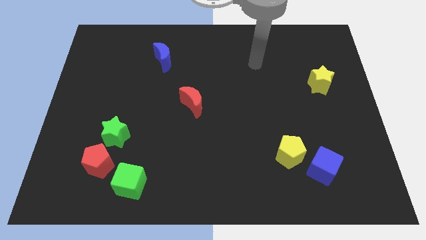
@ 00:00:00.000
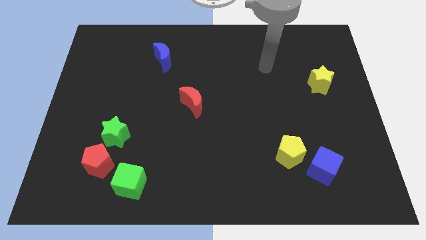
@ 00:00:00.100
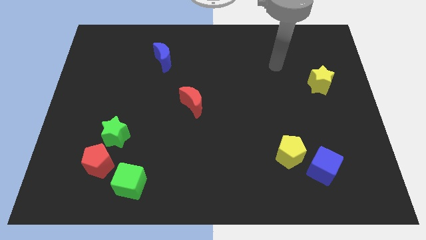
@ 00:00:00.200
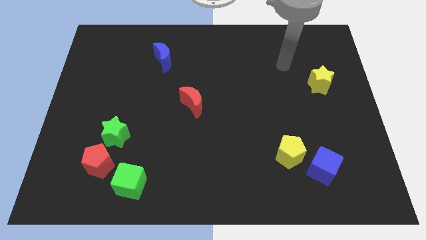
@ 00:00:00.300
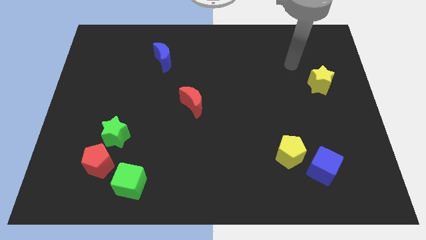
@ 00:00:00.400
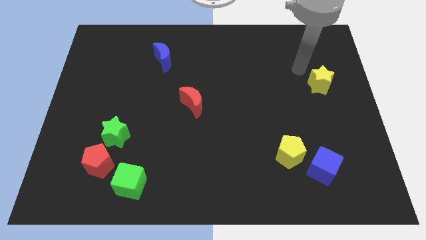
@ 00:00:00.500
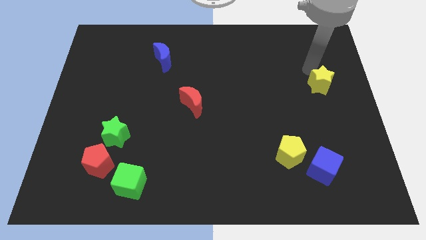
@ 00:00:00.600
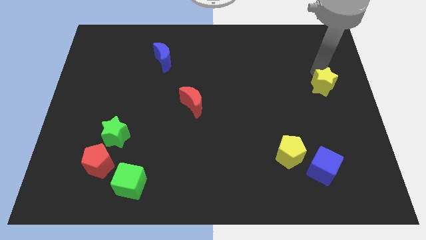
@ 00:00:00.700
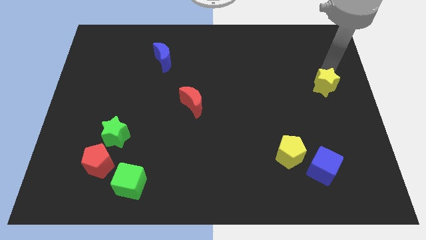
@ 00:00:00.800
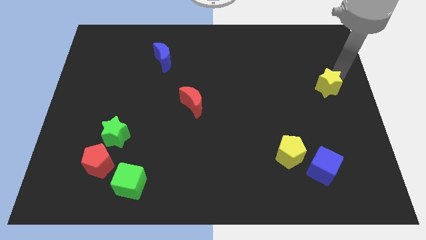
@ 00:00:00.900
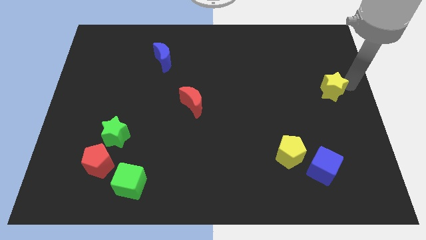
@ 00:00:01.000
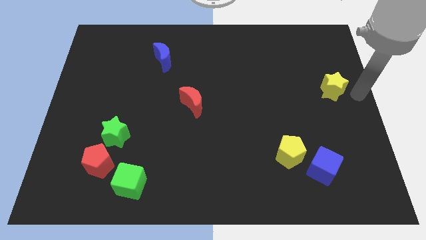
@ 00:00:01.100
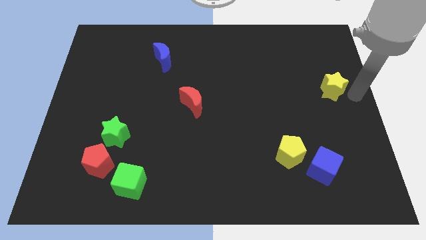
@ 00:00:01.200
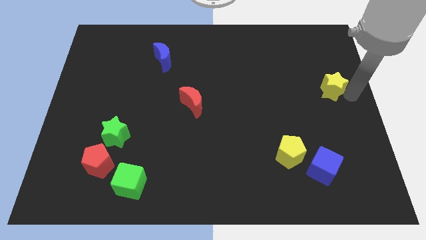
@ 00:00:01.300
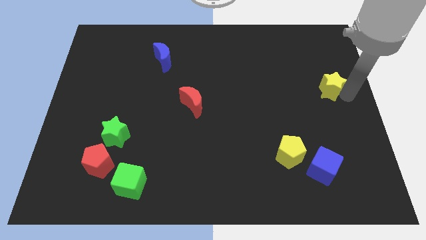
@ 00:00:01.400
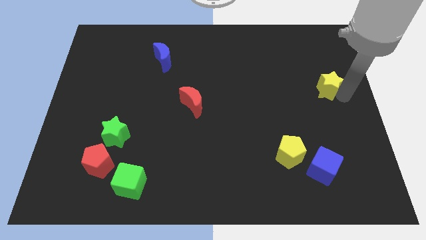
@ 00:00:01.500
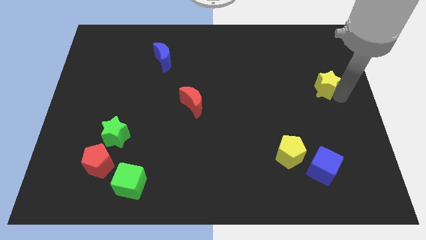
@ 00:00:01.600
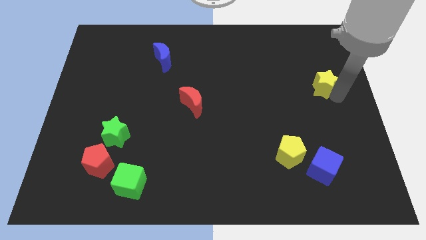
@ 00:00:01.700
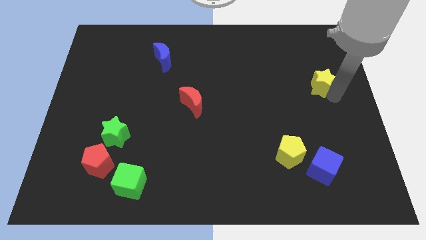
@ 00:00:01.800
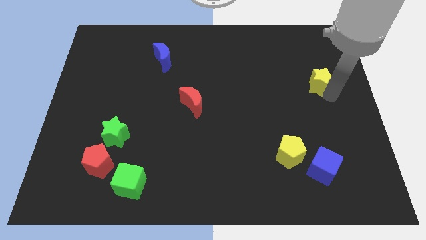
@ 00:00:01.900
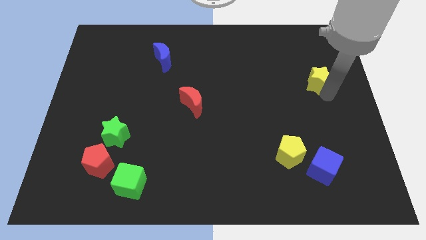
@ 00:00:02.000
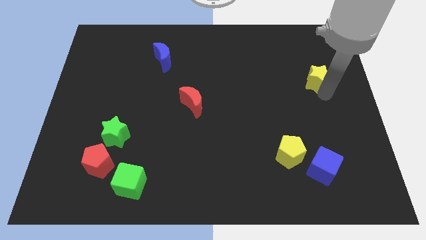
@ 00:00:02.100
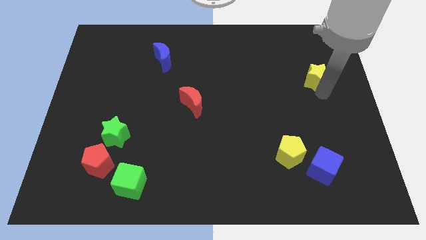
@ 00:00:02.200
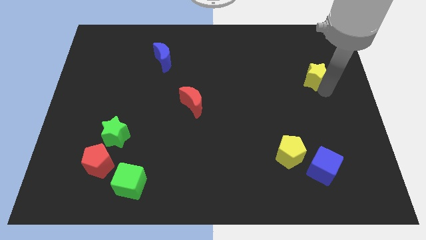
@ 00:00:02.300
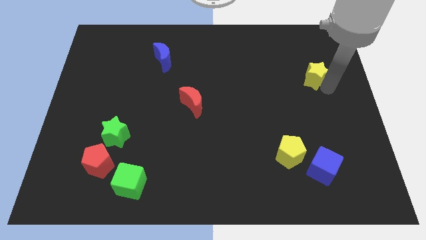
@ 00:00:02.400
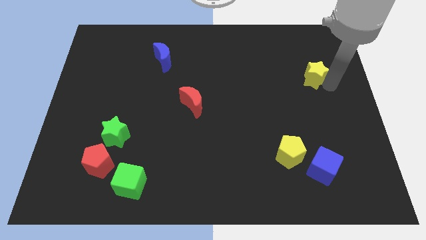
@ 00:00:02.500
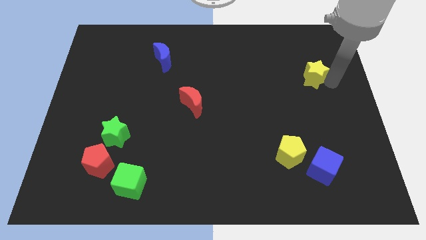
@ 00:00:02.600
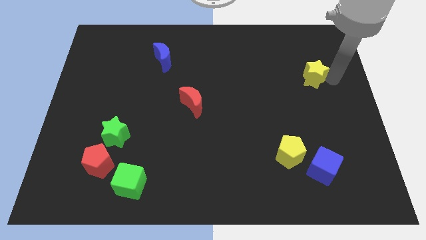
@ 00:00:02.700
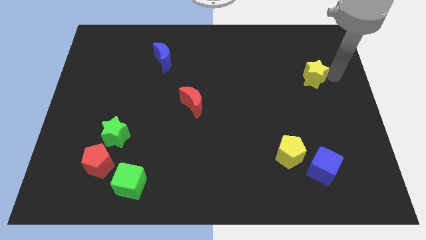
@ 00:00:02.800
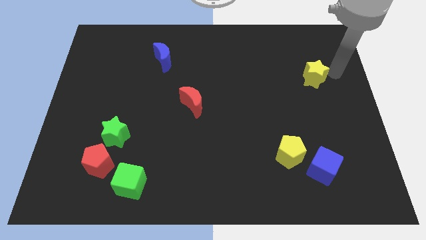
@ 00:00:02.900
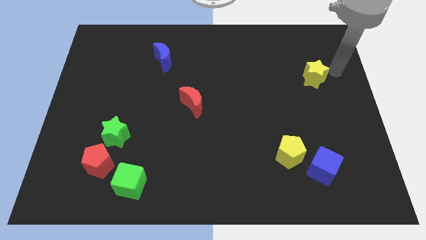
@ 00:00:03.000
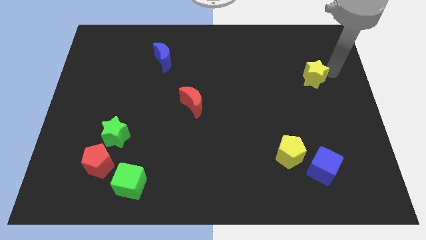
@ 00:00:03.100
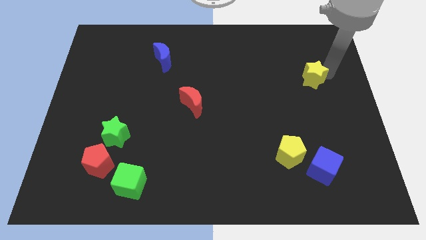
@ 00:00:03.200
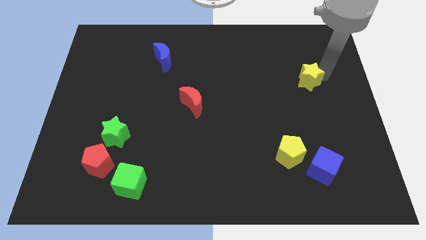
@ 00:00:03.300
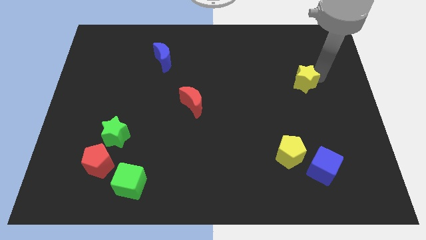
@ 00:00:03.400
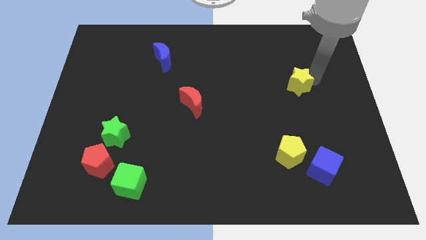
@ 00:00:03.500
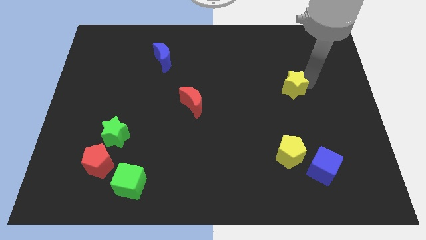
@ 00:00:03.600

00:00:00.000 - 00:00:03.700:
move the yellow star a little to the left

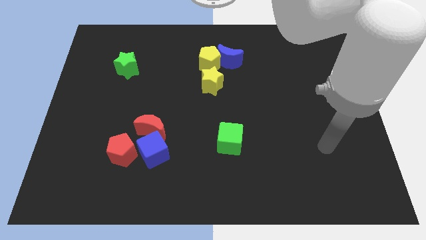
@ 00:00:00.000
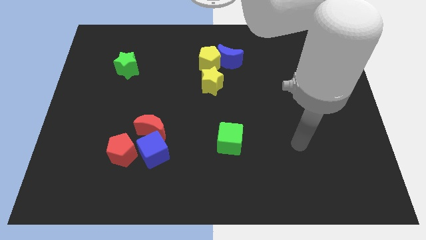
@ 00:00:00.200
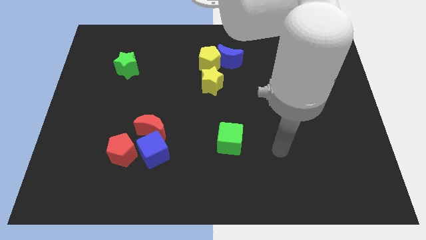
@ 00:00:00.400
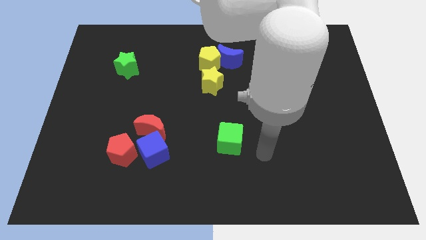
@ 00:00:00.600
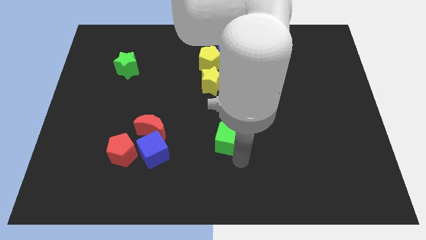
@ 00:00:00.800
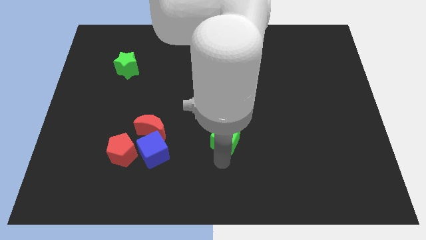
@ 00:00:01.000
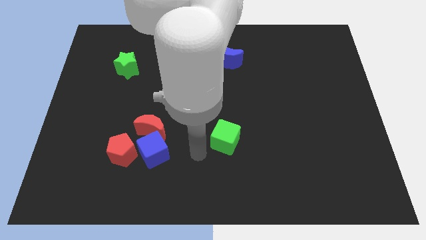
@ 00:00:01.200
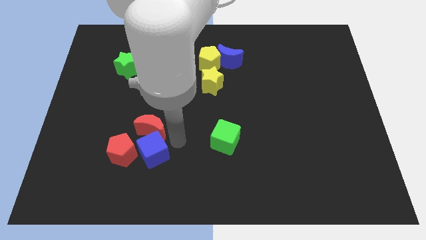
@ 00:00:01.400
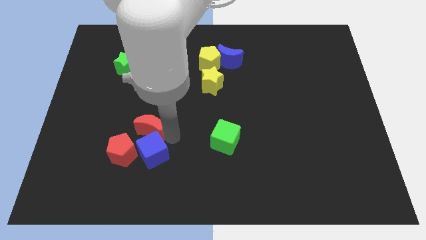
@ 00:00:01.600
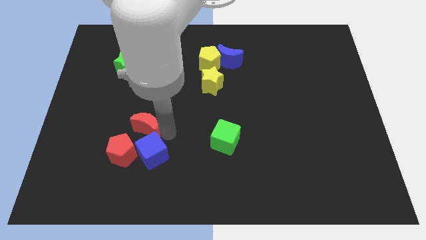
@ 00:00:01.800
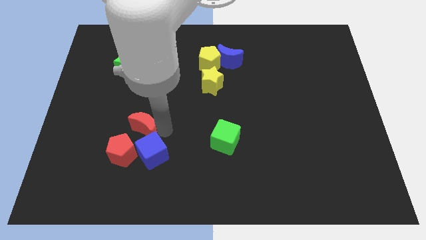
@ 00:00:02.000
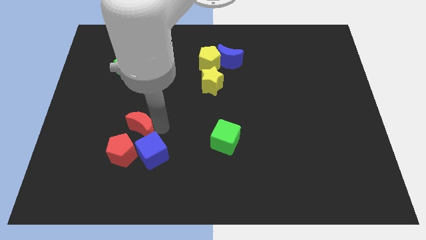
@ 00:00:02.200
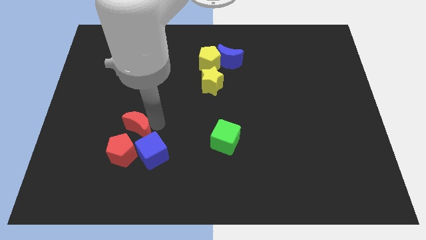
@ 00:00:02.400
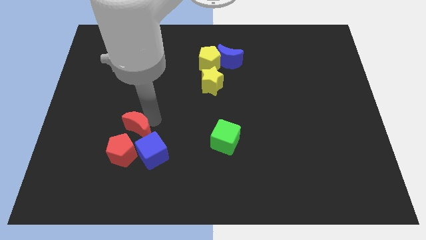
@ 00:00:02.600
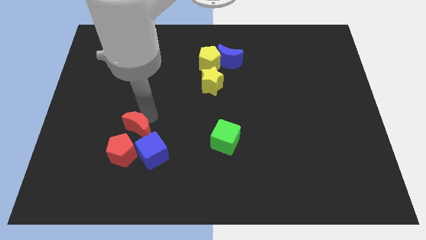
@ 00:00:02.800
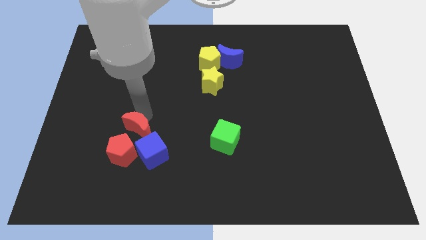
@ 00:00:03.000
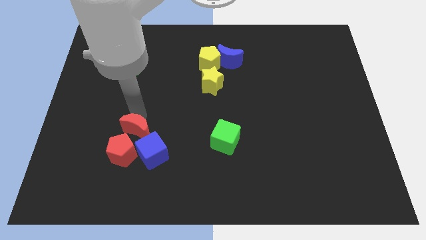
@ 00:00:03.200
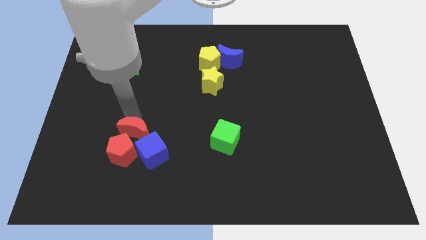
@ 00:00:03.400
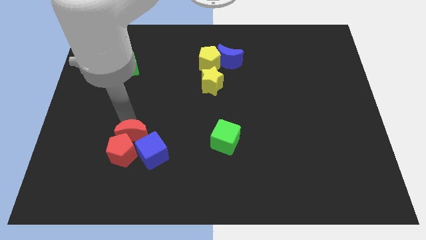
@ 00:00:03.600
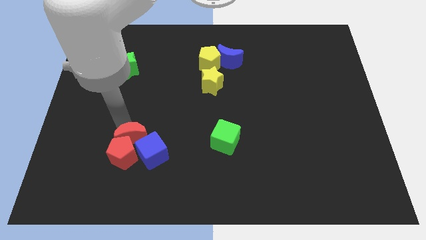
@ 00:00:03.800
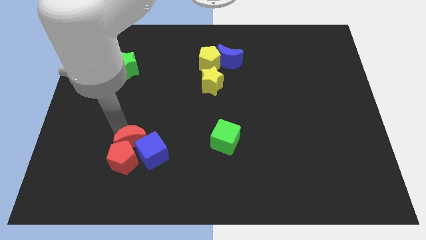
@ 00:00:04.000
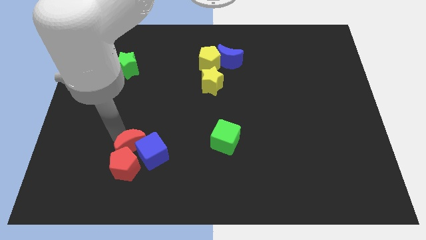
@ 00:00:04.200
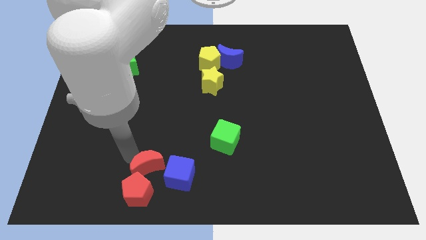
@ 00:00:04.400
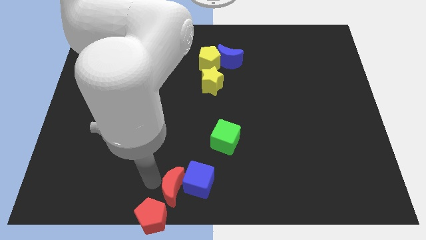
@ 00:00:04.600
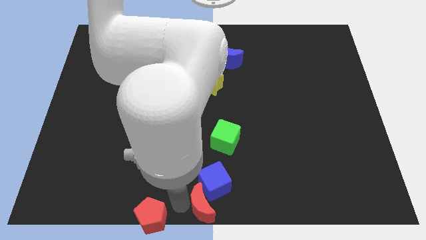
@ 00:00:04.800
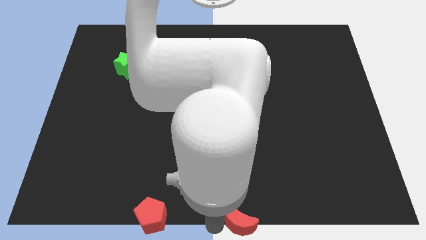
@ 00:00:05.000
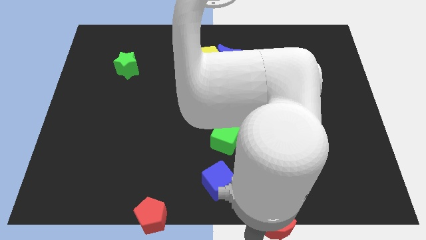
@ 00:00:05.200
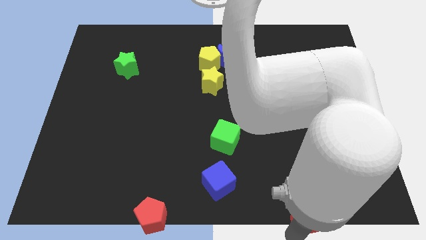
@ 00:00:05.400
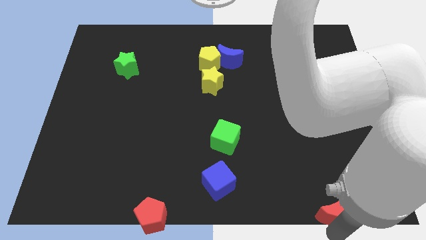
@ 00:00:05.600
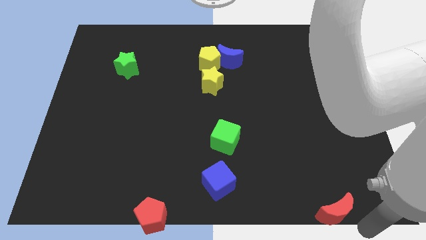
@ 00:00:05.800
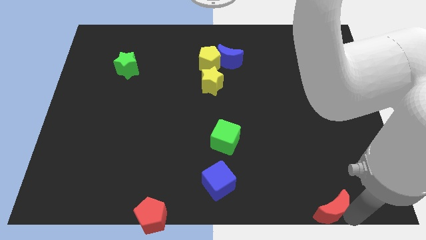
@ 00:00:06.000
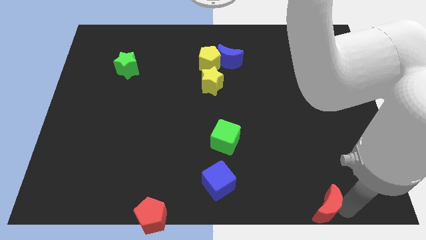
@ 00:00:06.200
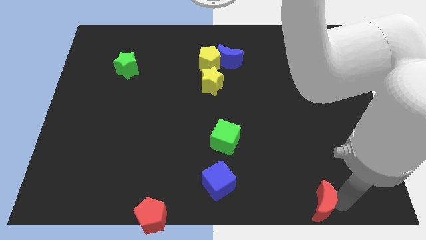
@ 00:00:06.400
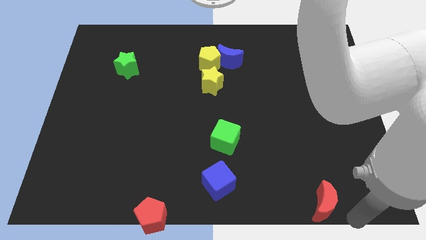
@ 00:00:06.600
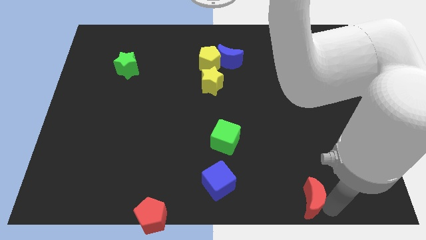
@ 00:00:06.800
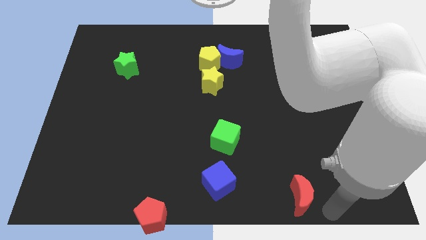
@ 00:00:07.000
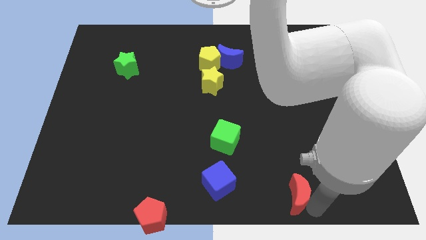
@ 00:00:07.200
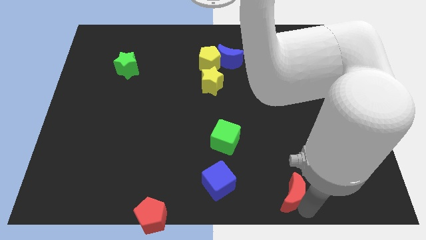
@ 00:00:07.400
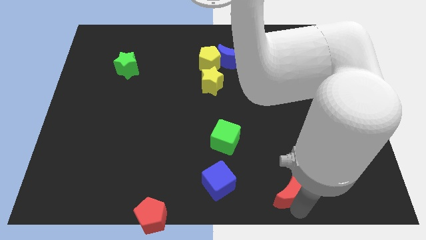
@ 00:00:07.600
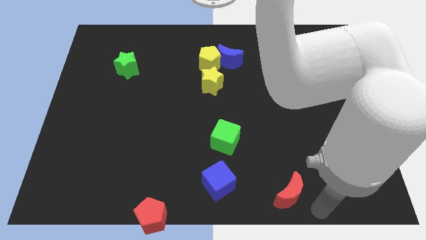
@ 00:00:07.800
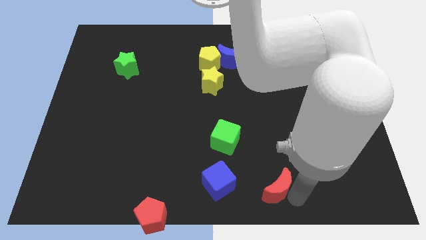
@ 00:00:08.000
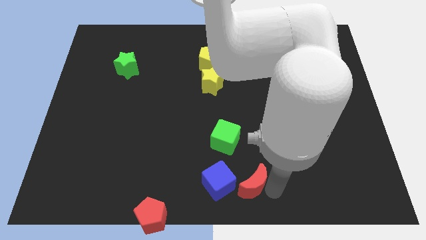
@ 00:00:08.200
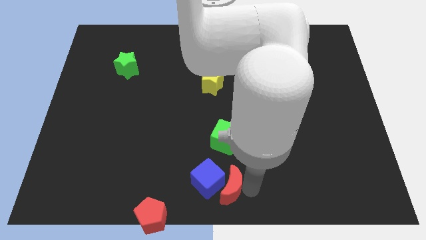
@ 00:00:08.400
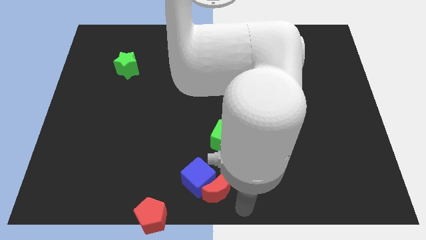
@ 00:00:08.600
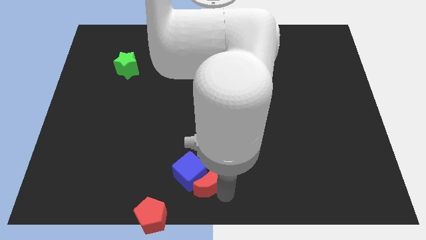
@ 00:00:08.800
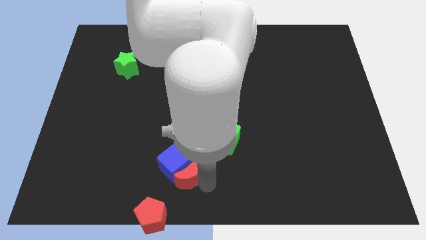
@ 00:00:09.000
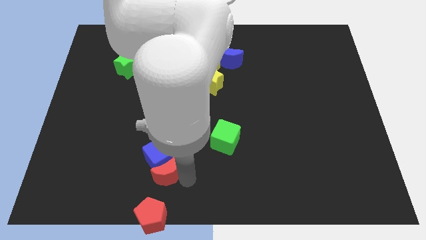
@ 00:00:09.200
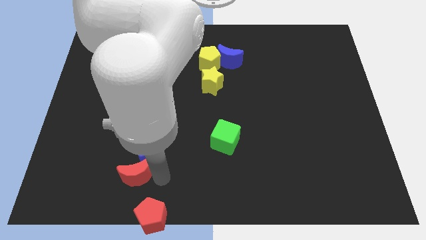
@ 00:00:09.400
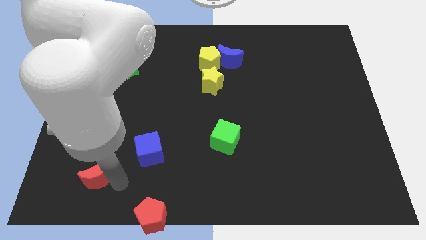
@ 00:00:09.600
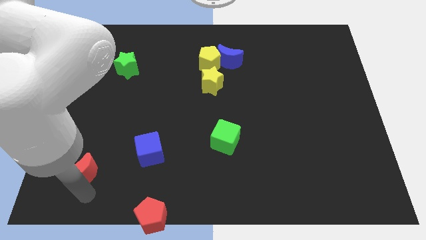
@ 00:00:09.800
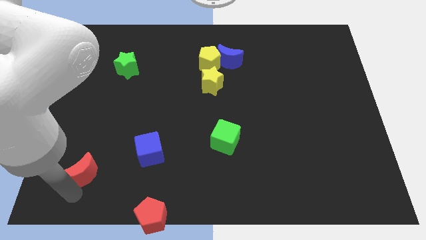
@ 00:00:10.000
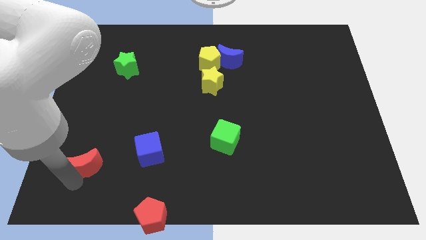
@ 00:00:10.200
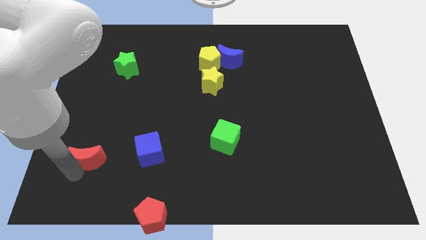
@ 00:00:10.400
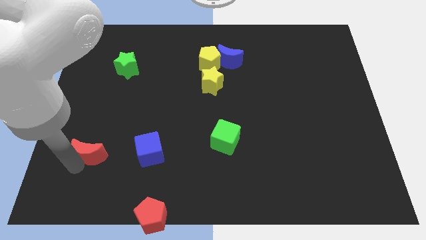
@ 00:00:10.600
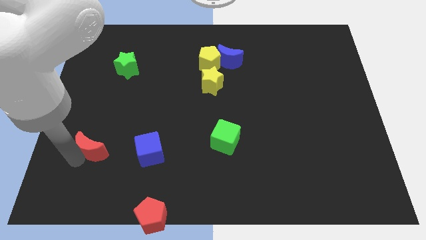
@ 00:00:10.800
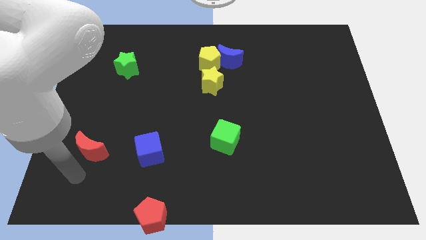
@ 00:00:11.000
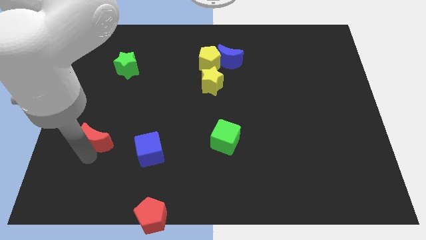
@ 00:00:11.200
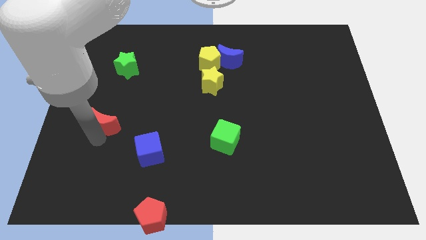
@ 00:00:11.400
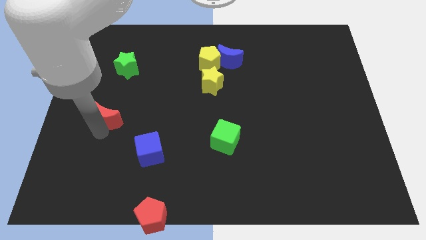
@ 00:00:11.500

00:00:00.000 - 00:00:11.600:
slightly slide the red moon diagonally up and to the left
